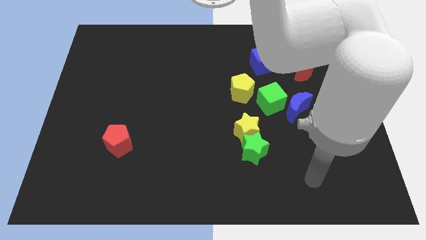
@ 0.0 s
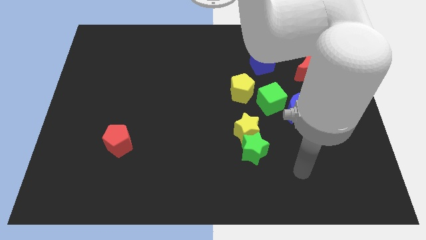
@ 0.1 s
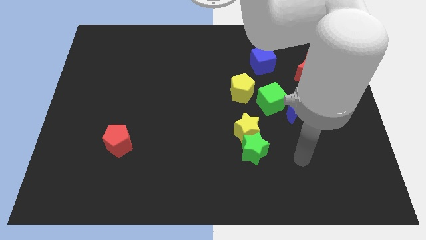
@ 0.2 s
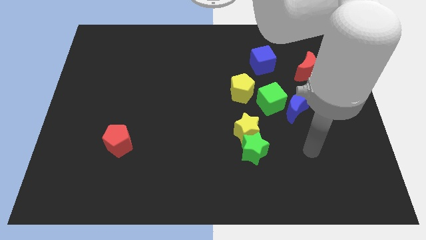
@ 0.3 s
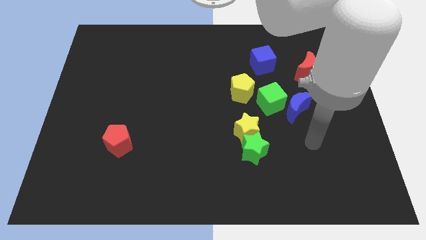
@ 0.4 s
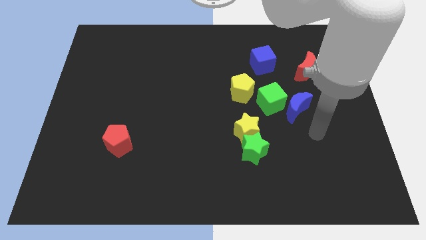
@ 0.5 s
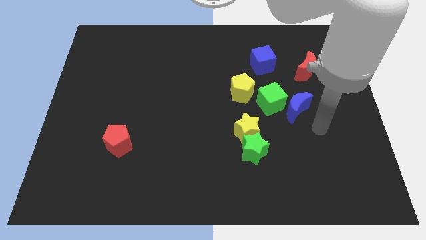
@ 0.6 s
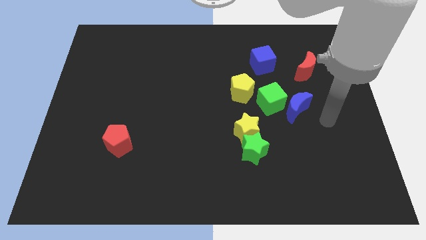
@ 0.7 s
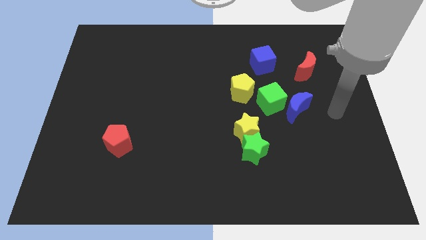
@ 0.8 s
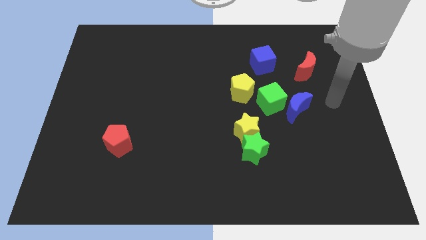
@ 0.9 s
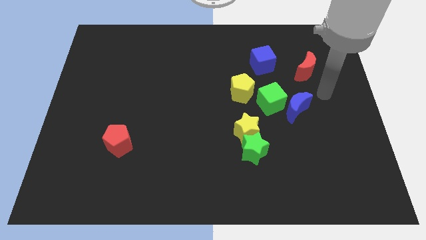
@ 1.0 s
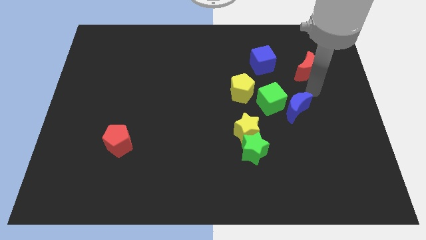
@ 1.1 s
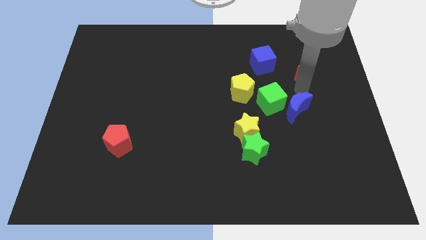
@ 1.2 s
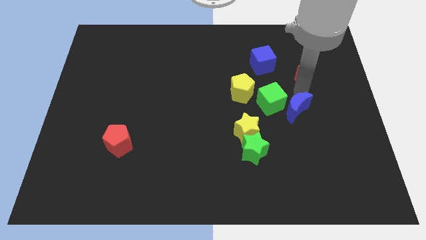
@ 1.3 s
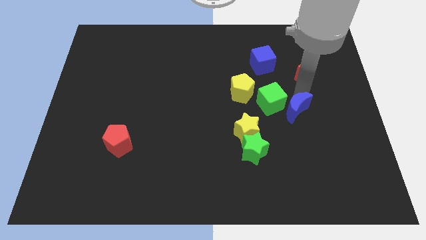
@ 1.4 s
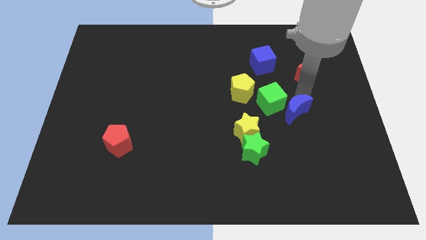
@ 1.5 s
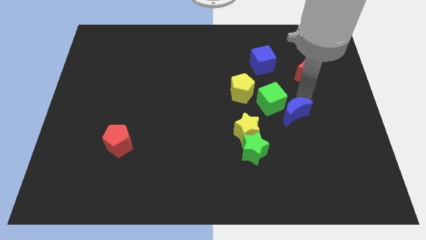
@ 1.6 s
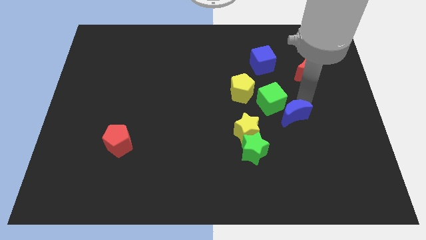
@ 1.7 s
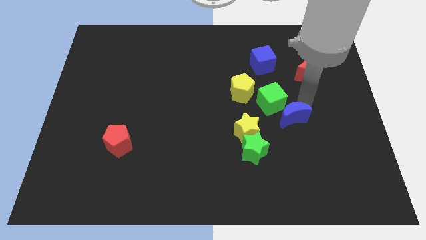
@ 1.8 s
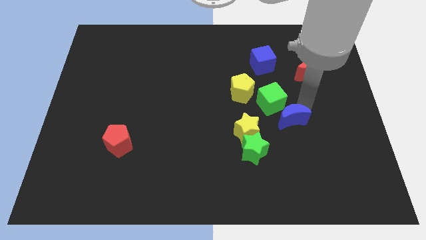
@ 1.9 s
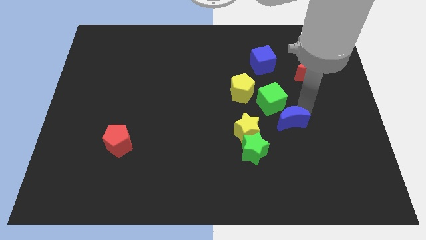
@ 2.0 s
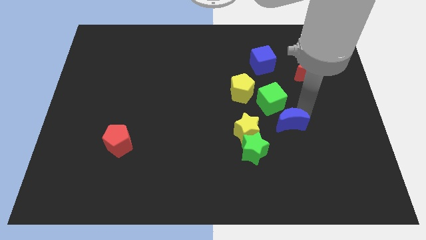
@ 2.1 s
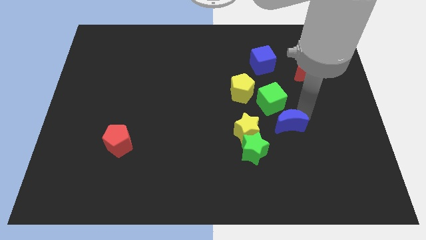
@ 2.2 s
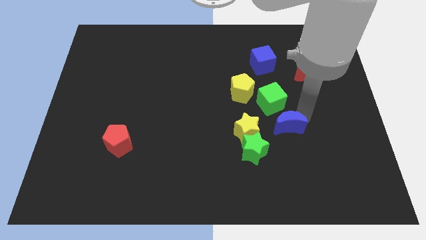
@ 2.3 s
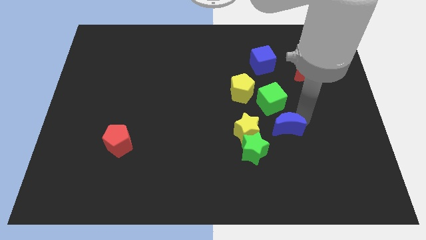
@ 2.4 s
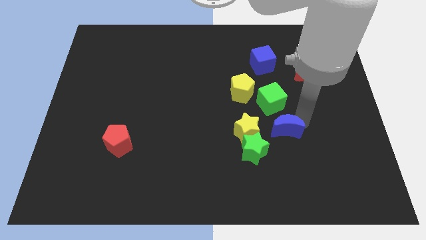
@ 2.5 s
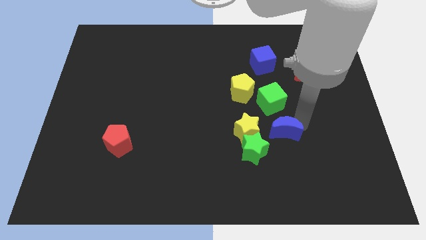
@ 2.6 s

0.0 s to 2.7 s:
slightly move the blue moon down and then to the left

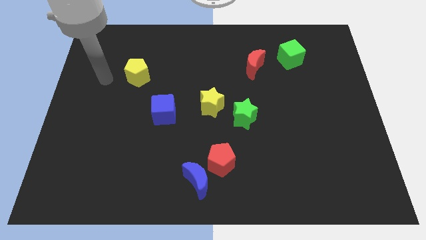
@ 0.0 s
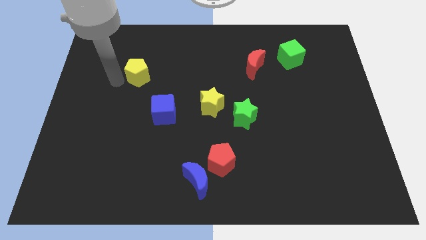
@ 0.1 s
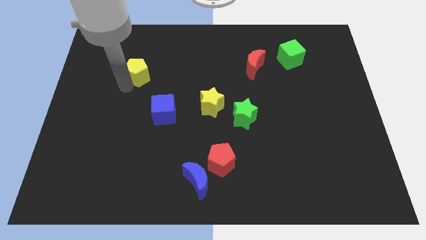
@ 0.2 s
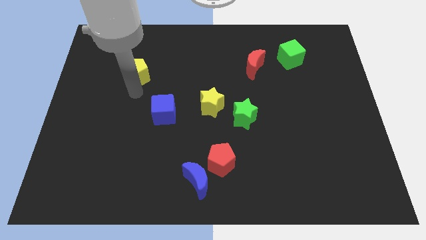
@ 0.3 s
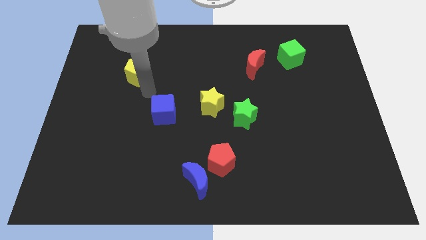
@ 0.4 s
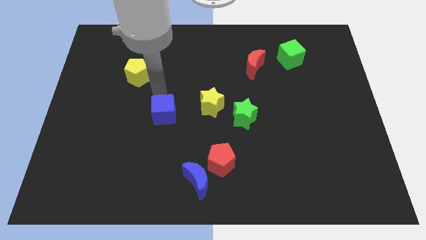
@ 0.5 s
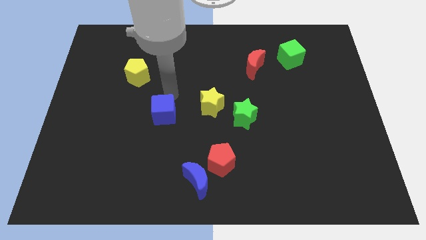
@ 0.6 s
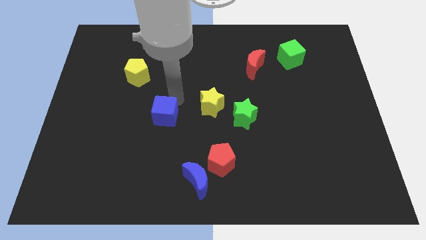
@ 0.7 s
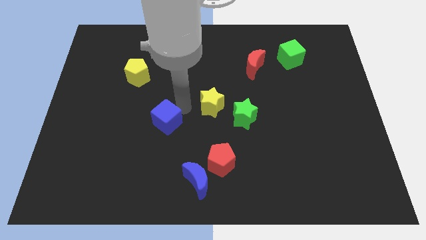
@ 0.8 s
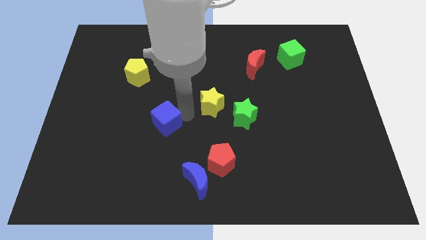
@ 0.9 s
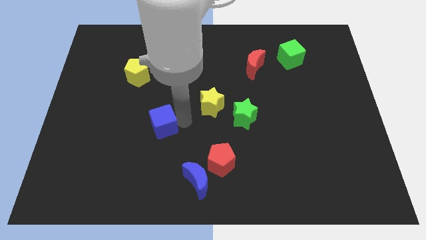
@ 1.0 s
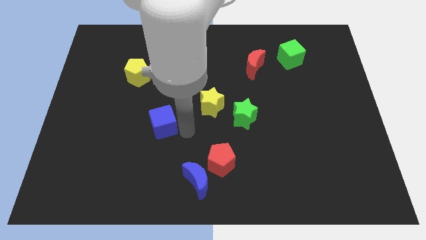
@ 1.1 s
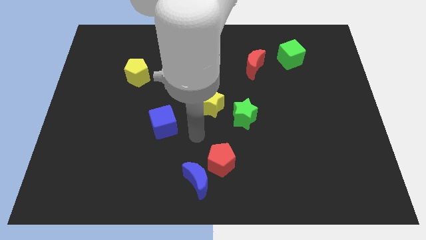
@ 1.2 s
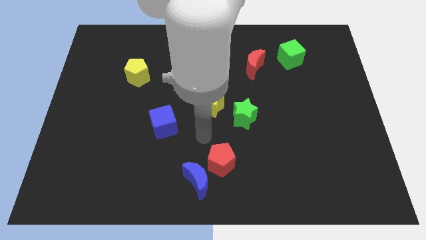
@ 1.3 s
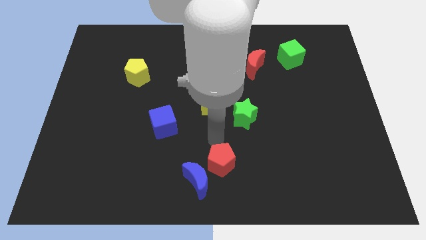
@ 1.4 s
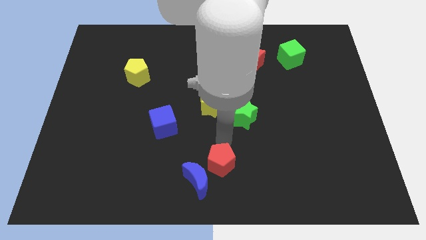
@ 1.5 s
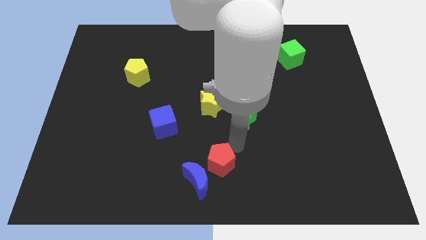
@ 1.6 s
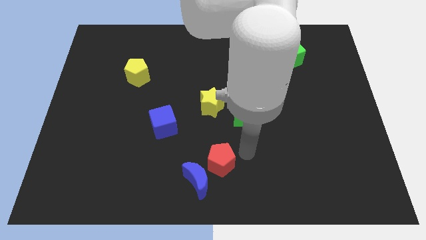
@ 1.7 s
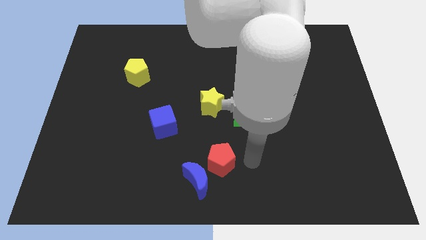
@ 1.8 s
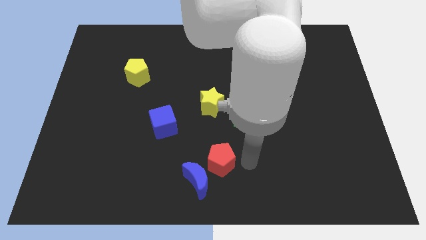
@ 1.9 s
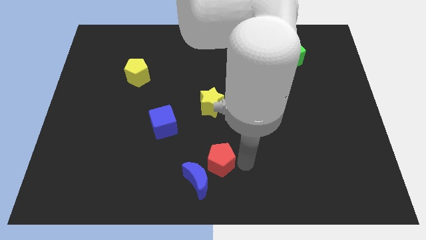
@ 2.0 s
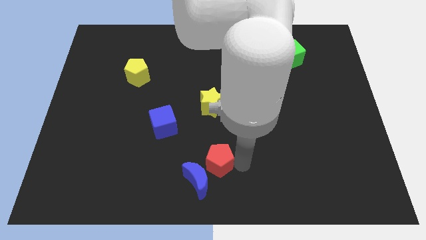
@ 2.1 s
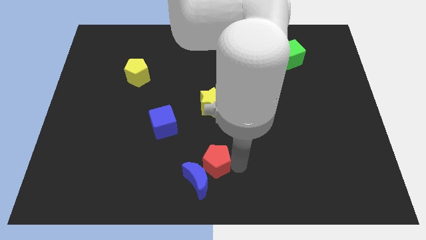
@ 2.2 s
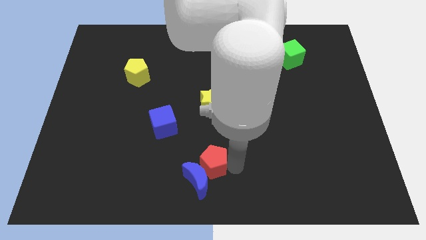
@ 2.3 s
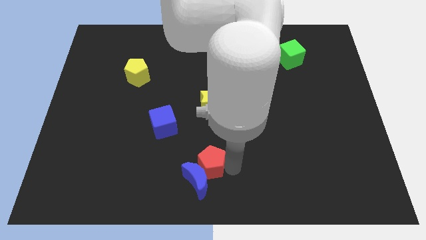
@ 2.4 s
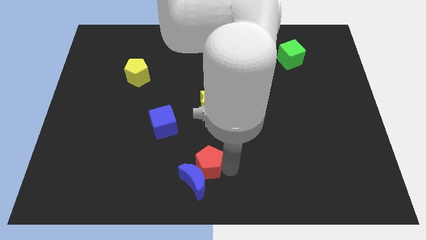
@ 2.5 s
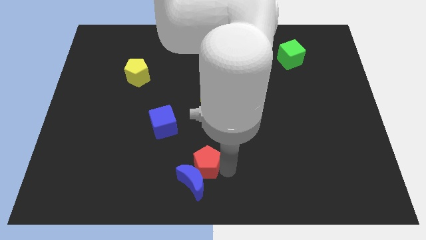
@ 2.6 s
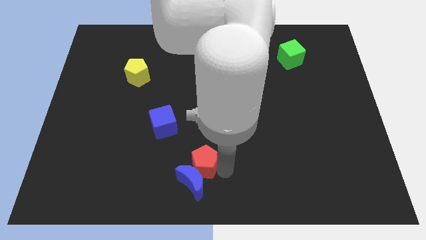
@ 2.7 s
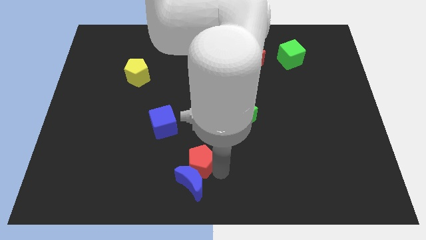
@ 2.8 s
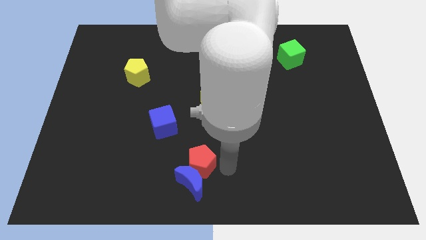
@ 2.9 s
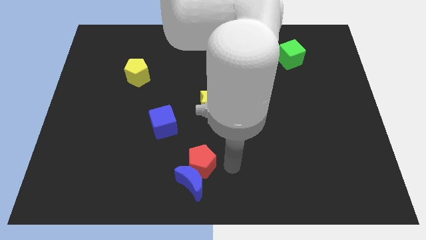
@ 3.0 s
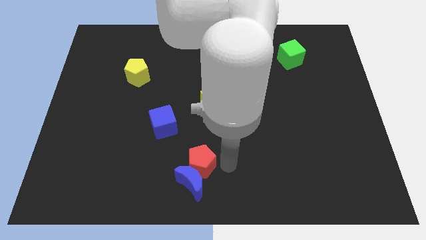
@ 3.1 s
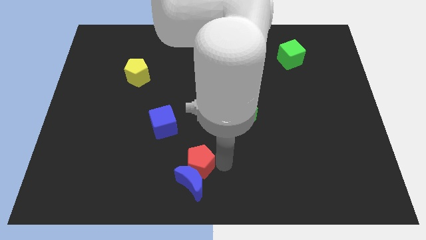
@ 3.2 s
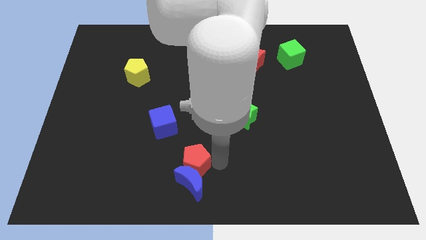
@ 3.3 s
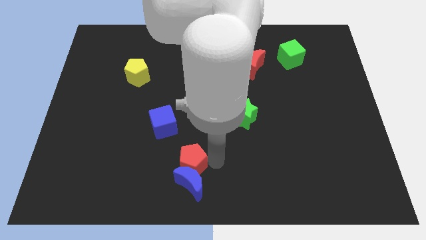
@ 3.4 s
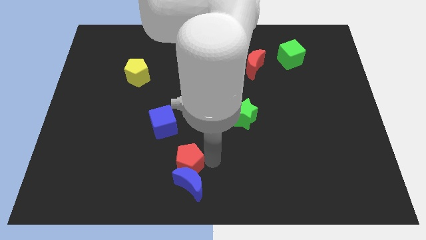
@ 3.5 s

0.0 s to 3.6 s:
move the red pentagon to the left slightly

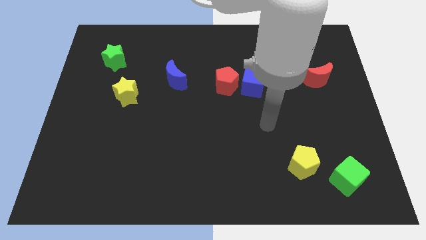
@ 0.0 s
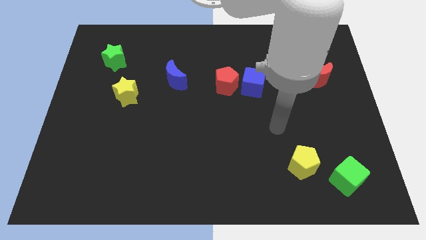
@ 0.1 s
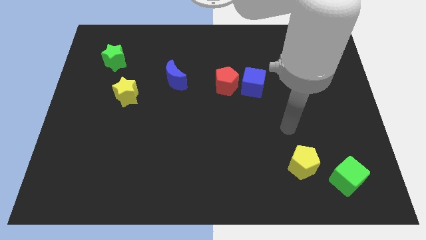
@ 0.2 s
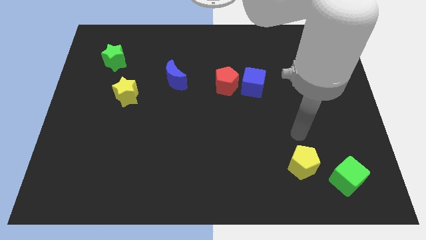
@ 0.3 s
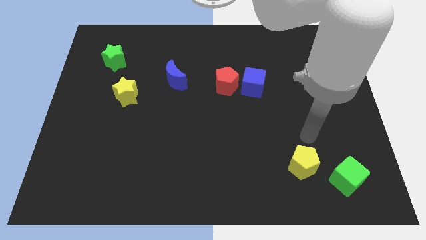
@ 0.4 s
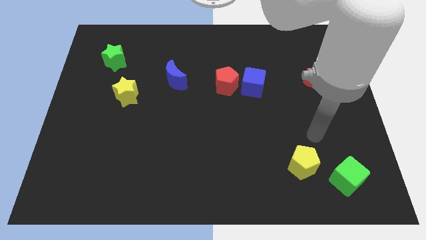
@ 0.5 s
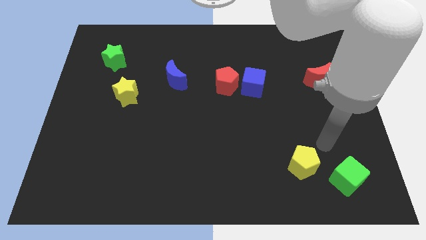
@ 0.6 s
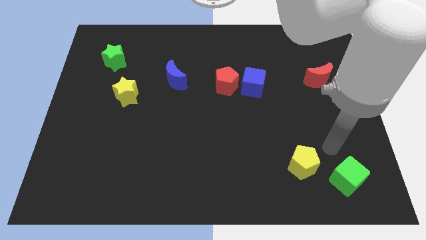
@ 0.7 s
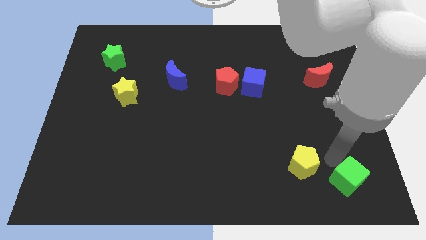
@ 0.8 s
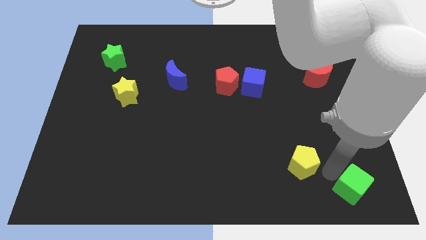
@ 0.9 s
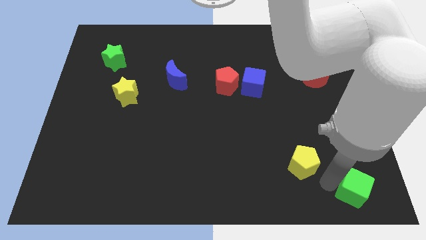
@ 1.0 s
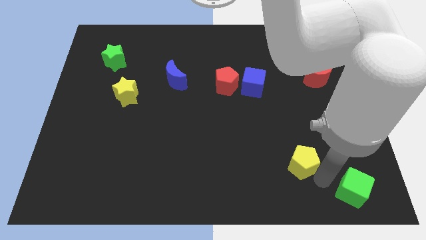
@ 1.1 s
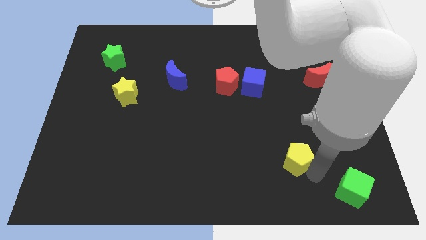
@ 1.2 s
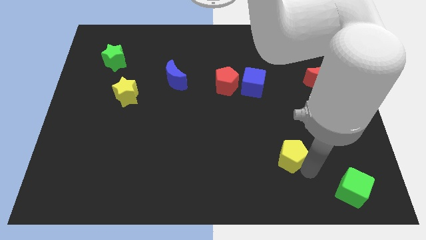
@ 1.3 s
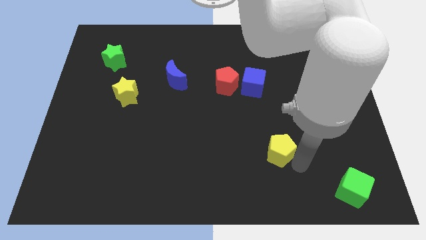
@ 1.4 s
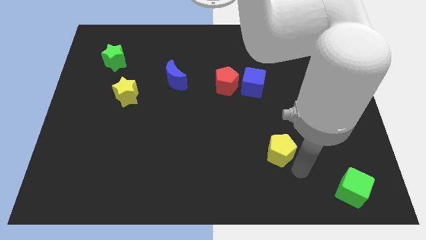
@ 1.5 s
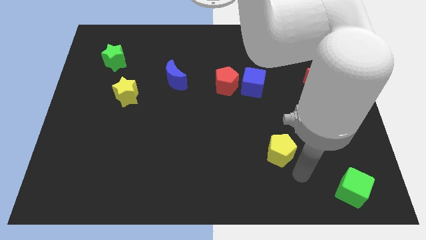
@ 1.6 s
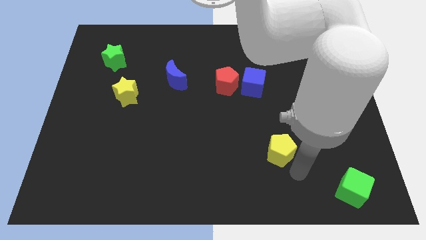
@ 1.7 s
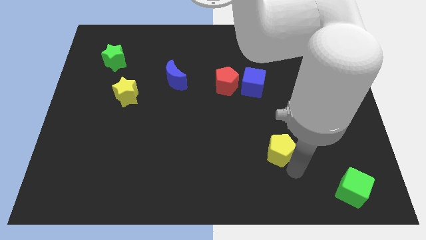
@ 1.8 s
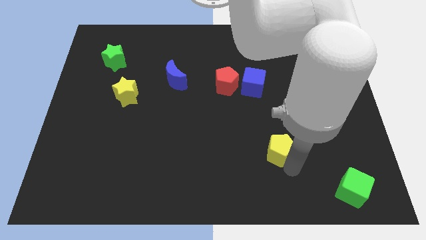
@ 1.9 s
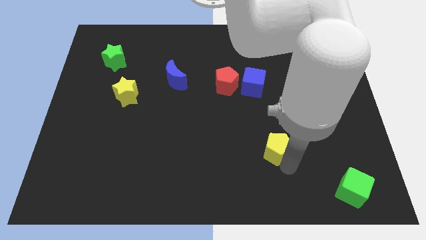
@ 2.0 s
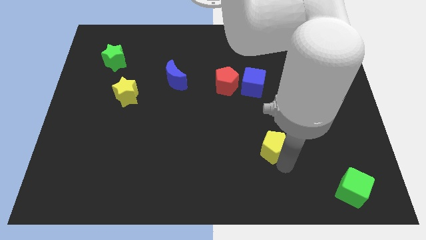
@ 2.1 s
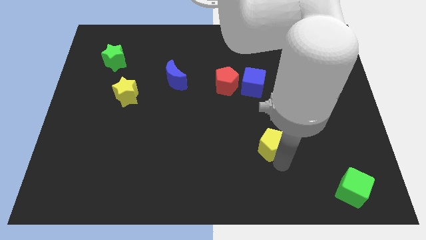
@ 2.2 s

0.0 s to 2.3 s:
slide the yellow pentagon up and left a little bit
